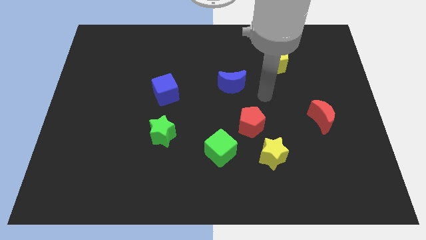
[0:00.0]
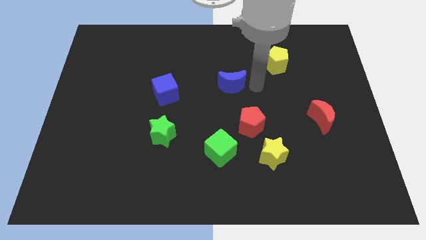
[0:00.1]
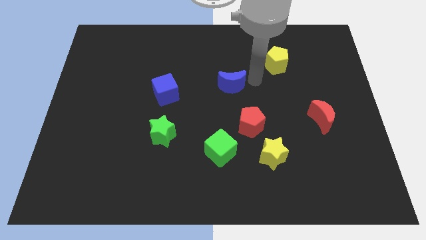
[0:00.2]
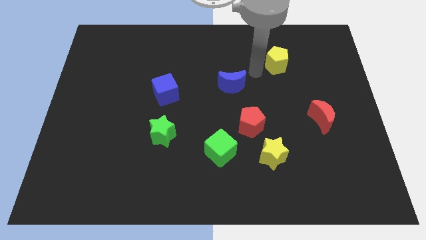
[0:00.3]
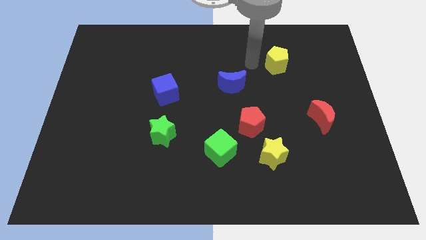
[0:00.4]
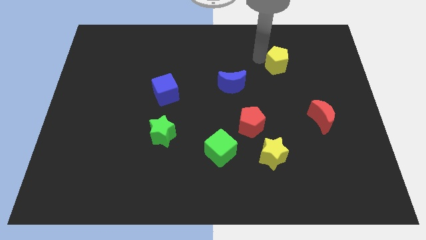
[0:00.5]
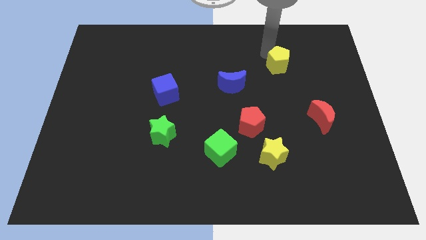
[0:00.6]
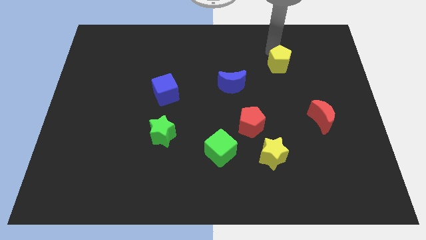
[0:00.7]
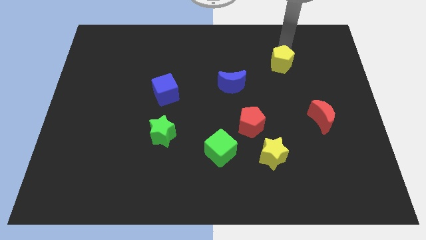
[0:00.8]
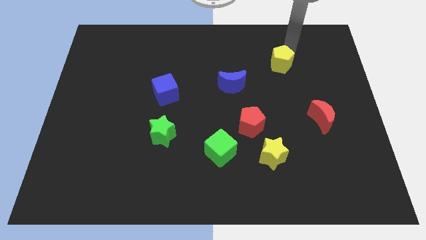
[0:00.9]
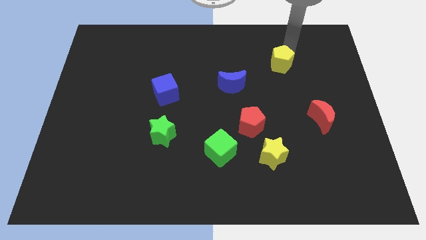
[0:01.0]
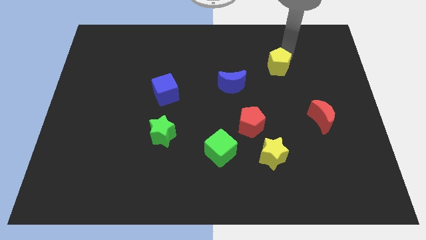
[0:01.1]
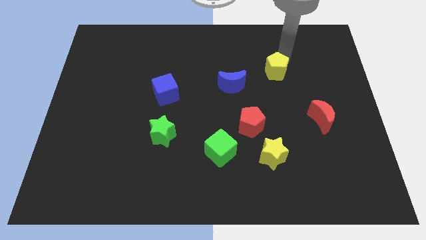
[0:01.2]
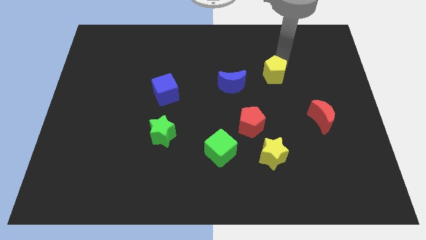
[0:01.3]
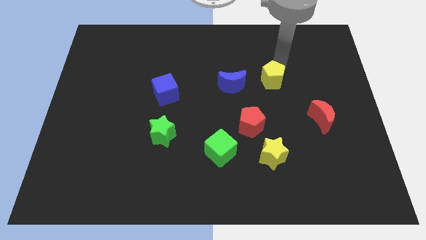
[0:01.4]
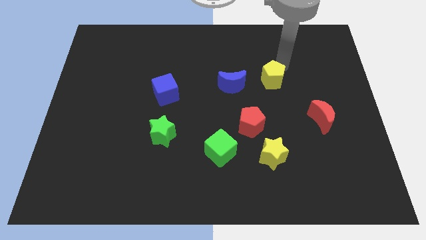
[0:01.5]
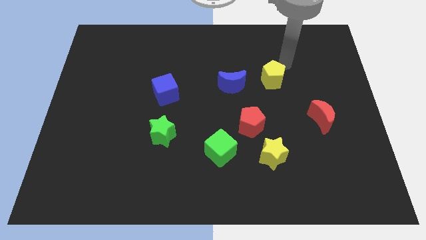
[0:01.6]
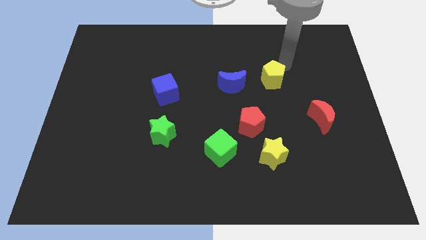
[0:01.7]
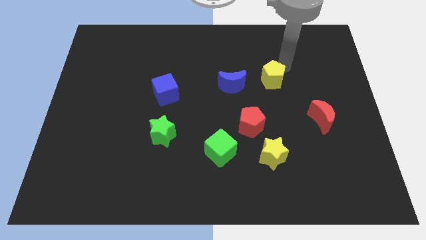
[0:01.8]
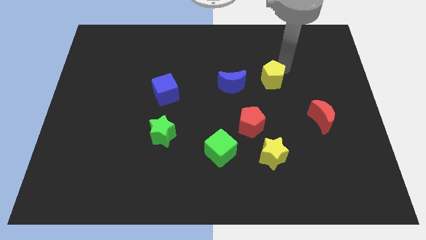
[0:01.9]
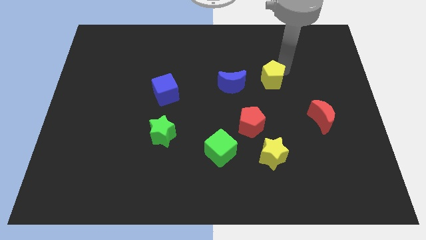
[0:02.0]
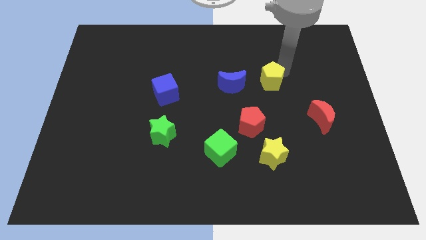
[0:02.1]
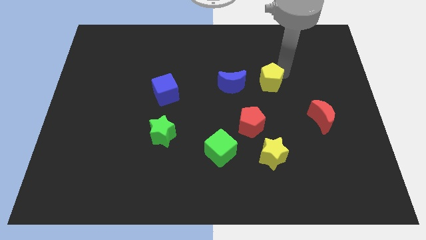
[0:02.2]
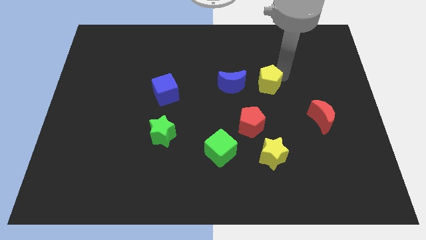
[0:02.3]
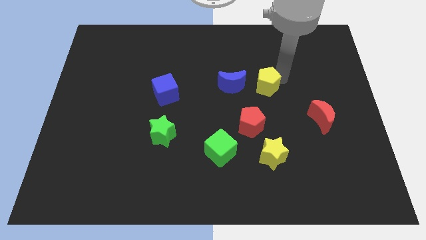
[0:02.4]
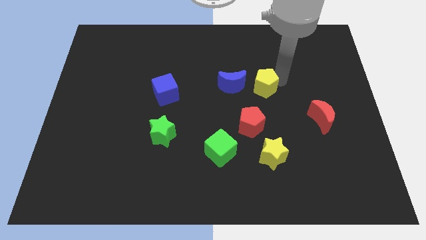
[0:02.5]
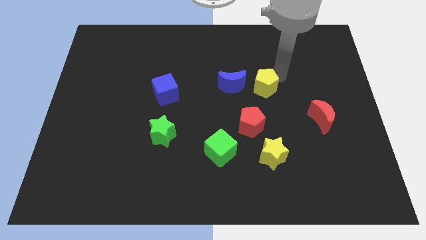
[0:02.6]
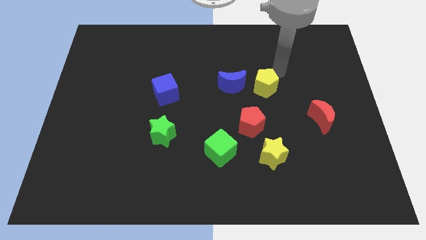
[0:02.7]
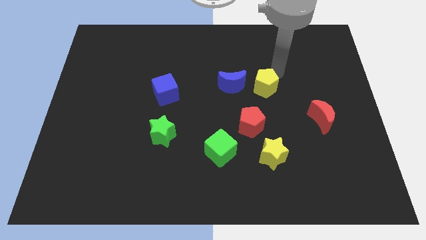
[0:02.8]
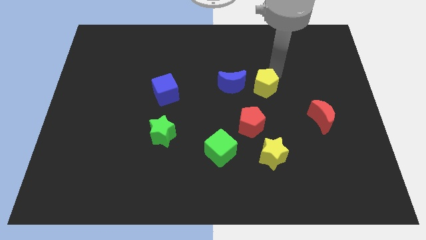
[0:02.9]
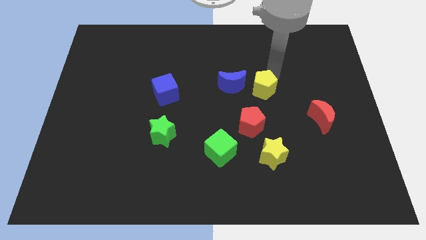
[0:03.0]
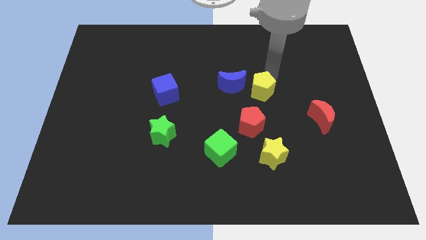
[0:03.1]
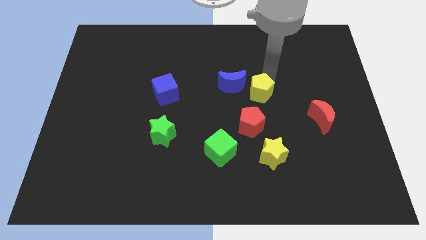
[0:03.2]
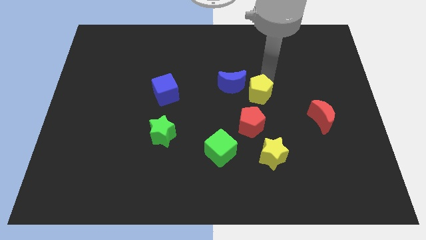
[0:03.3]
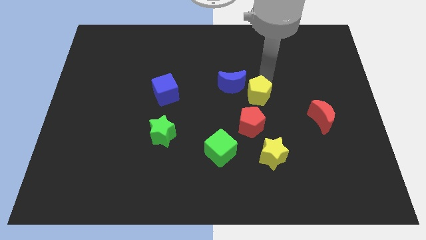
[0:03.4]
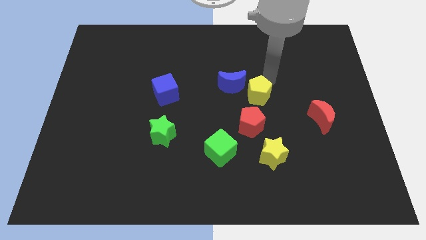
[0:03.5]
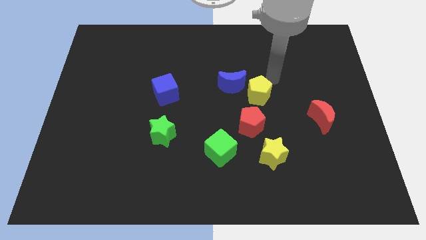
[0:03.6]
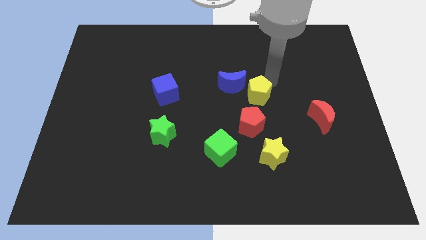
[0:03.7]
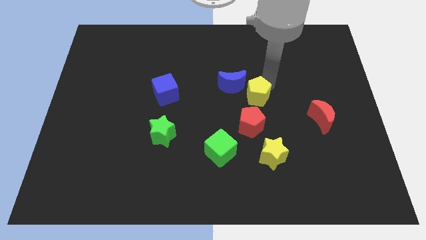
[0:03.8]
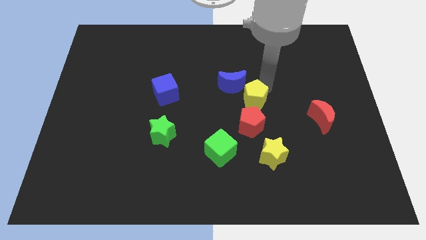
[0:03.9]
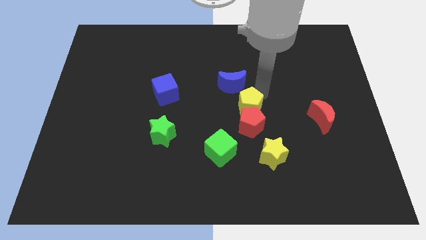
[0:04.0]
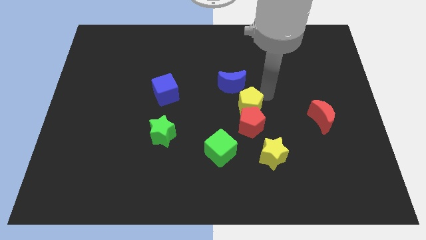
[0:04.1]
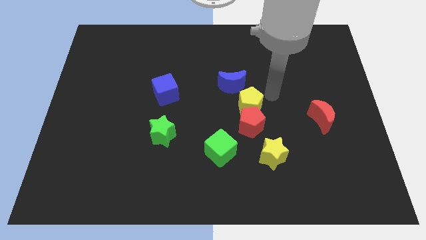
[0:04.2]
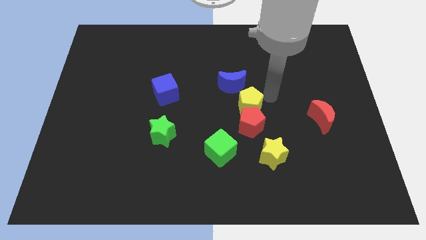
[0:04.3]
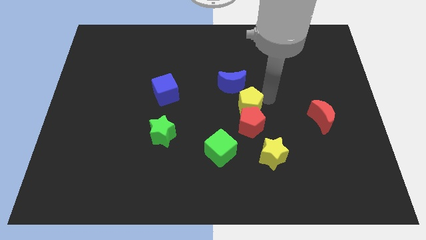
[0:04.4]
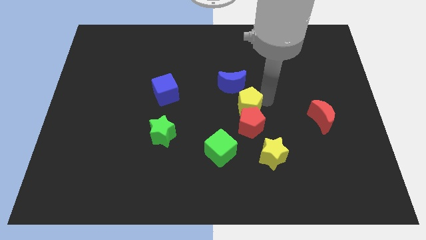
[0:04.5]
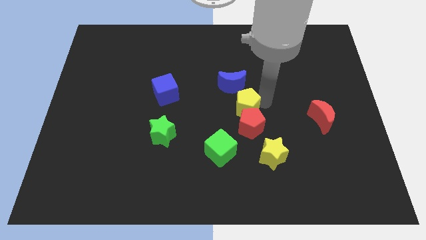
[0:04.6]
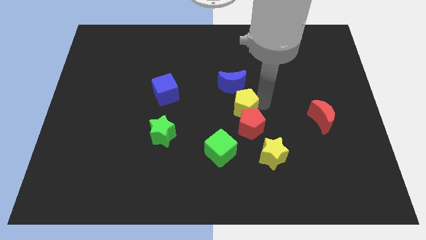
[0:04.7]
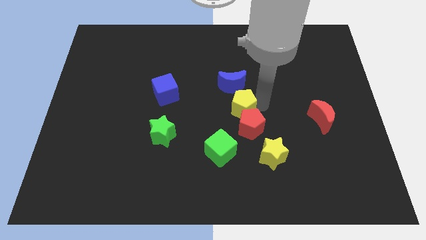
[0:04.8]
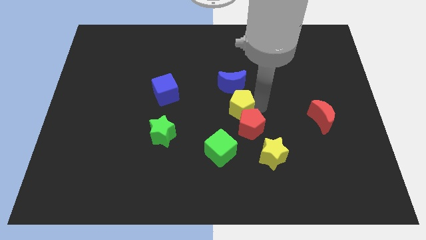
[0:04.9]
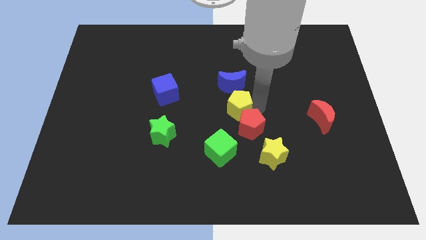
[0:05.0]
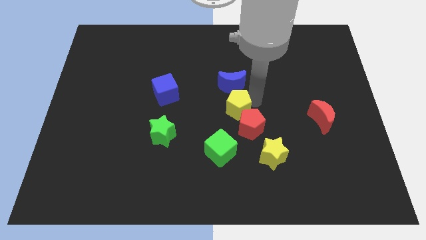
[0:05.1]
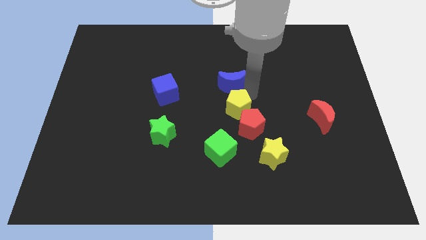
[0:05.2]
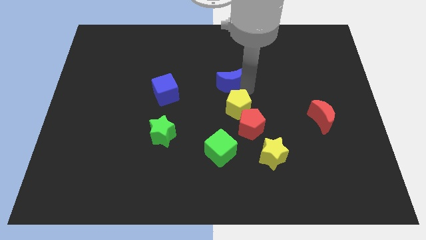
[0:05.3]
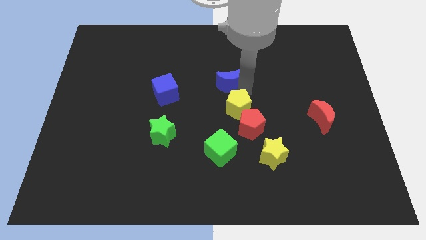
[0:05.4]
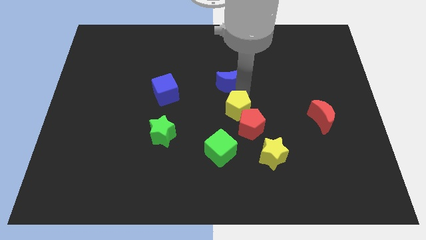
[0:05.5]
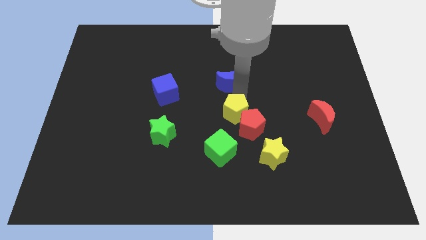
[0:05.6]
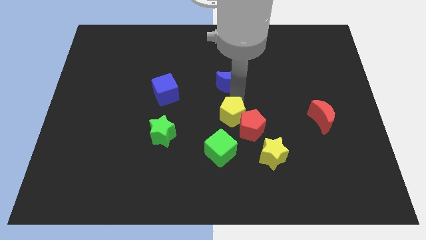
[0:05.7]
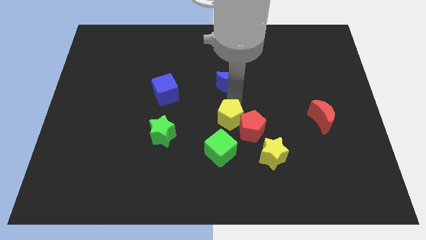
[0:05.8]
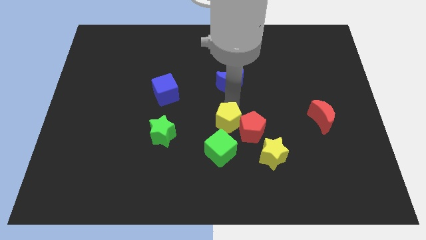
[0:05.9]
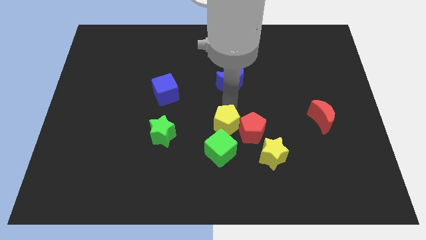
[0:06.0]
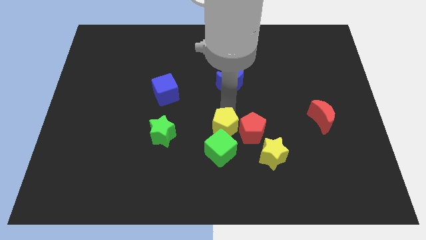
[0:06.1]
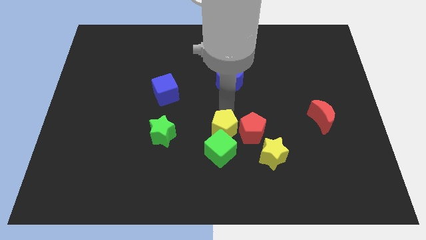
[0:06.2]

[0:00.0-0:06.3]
put the yellow pentagon to the green cube
